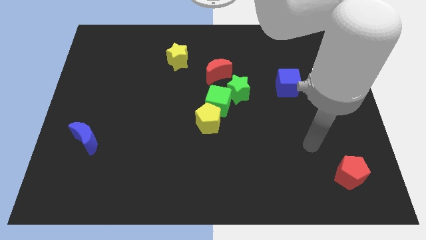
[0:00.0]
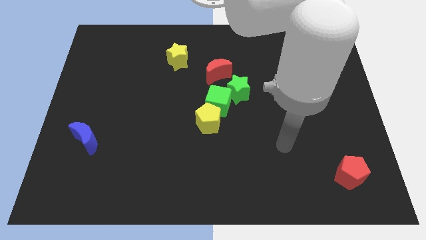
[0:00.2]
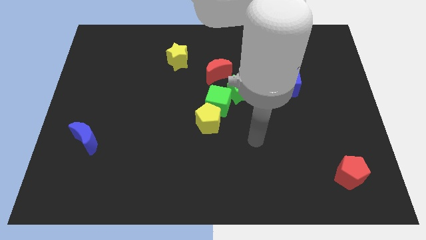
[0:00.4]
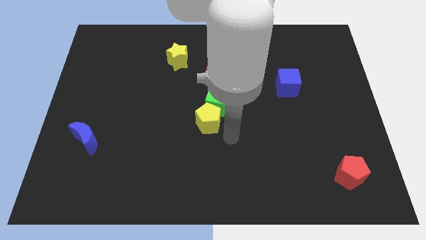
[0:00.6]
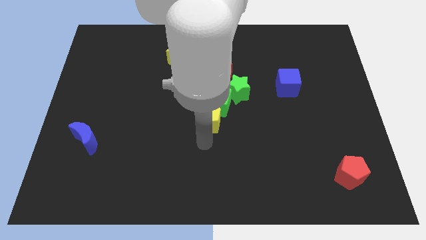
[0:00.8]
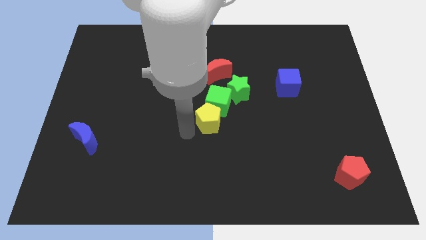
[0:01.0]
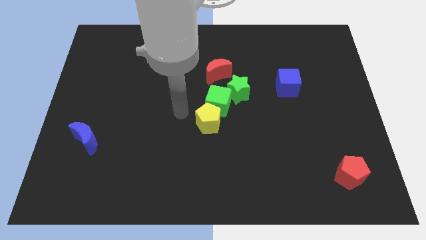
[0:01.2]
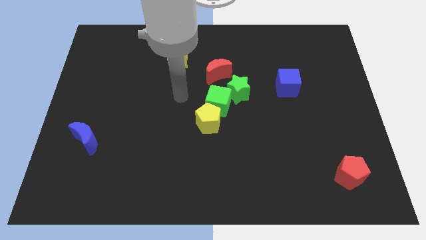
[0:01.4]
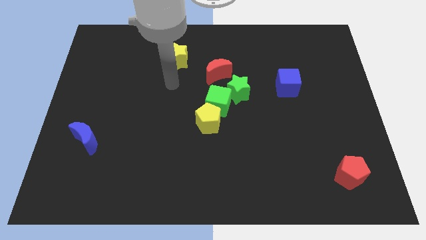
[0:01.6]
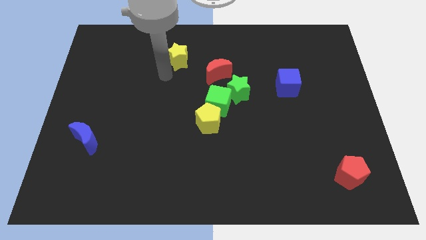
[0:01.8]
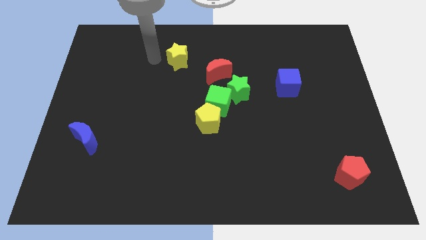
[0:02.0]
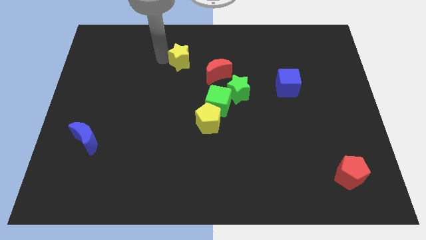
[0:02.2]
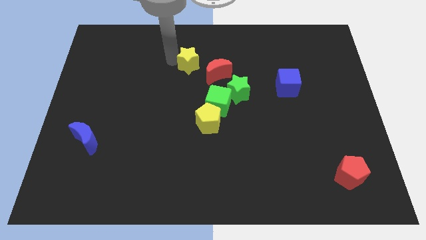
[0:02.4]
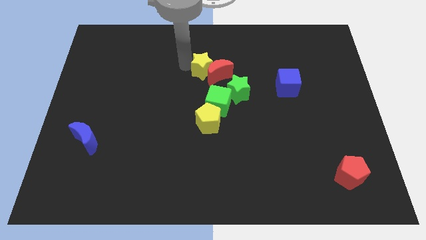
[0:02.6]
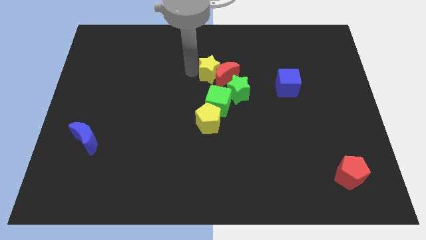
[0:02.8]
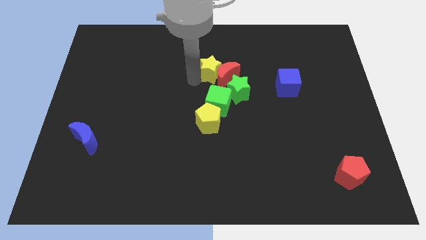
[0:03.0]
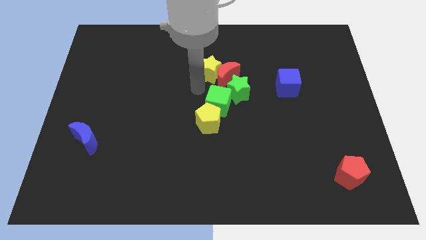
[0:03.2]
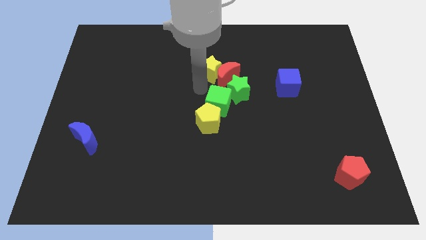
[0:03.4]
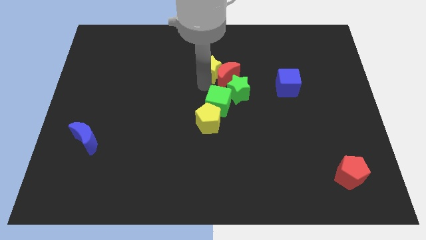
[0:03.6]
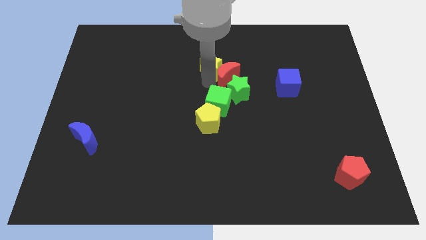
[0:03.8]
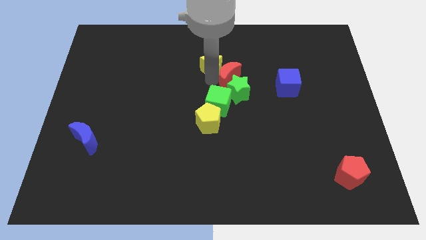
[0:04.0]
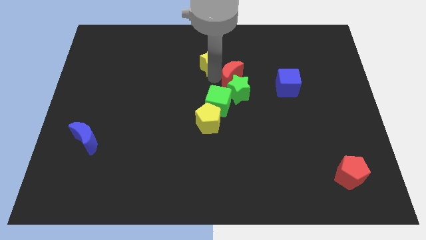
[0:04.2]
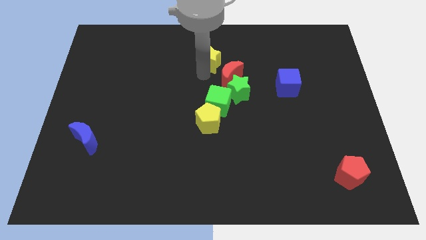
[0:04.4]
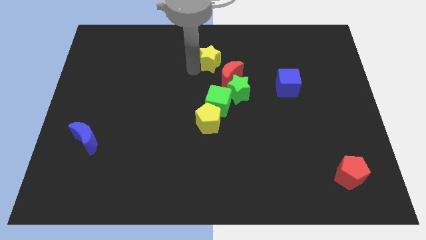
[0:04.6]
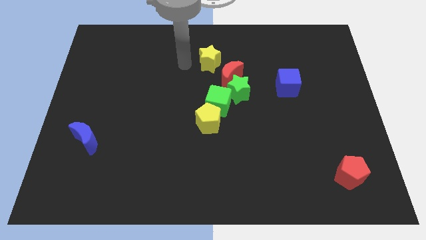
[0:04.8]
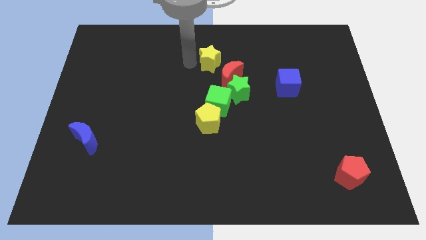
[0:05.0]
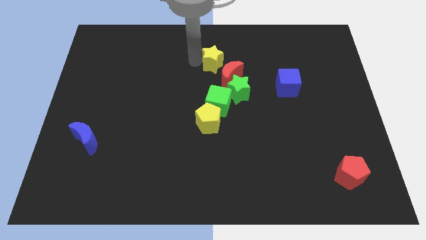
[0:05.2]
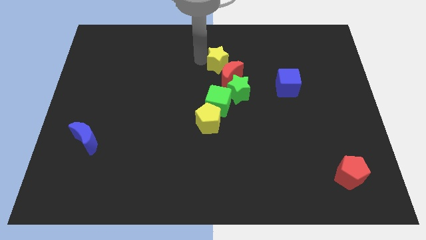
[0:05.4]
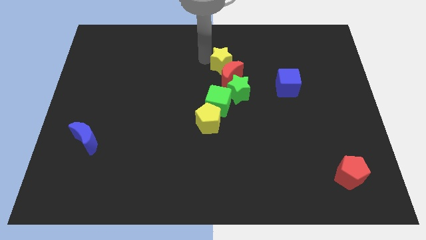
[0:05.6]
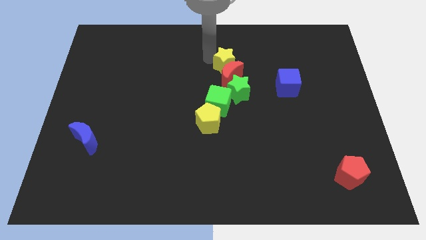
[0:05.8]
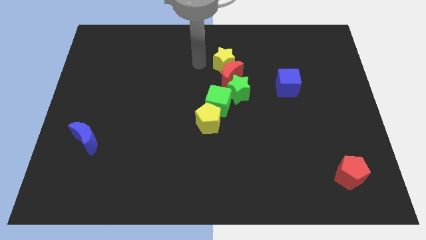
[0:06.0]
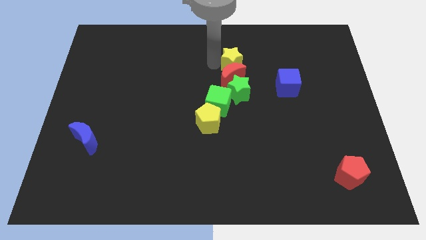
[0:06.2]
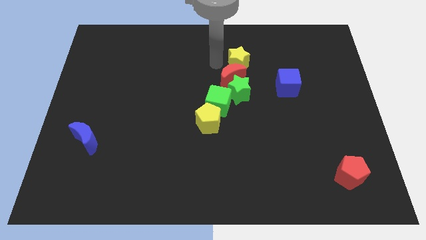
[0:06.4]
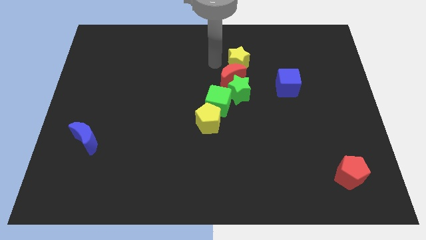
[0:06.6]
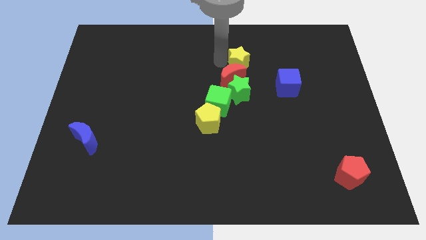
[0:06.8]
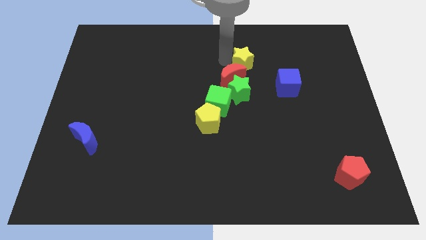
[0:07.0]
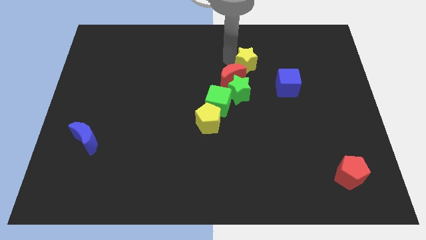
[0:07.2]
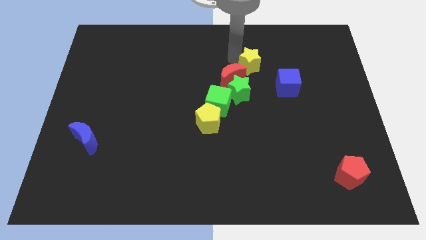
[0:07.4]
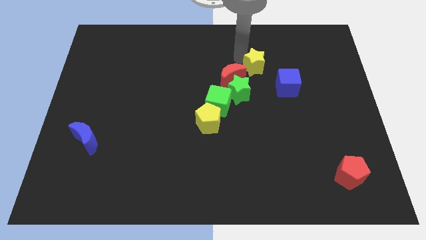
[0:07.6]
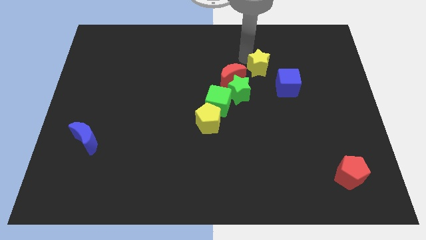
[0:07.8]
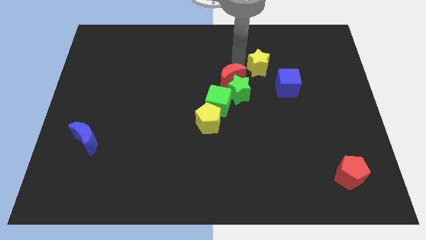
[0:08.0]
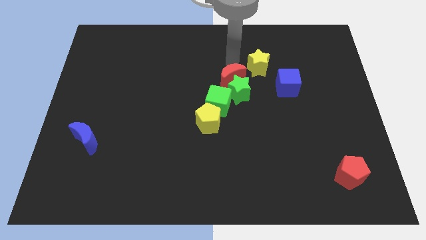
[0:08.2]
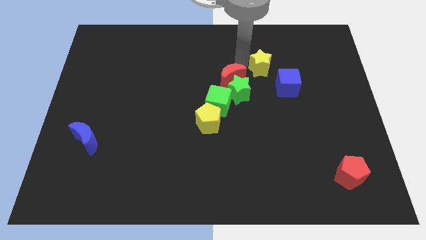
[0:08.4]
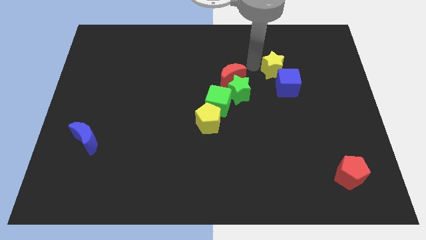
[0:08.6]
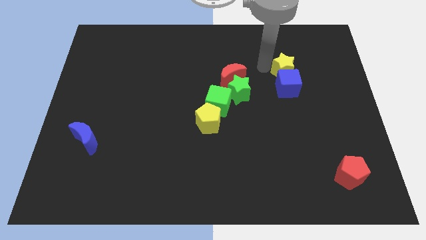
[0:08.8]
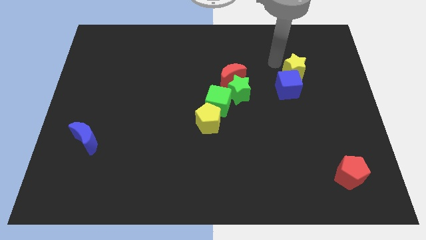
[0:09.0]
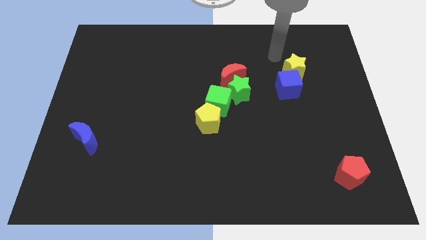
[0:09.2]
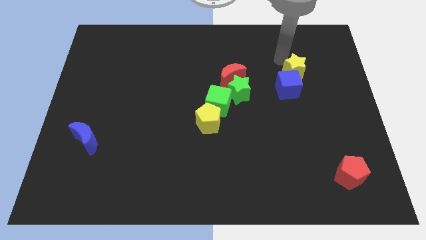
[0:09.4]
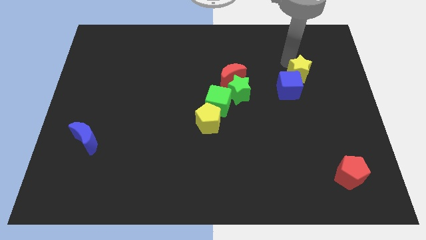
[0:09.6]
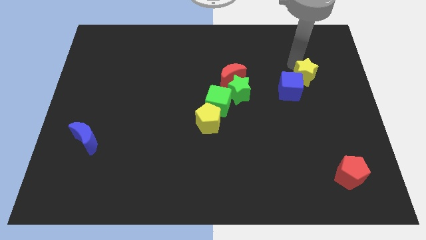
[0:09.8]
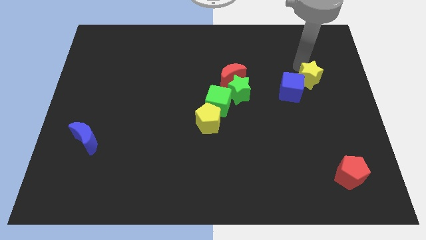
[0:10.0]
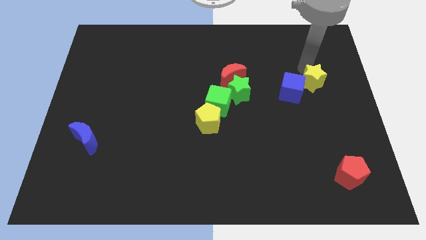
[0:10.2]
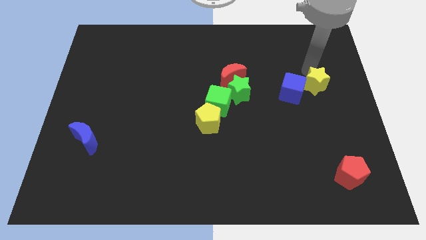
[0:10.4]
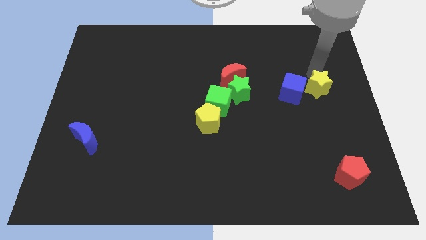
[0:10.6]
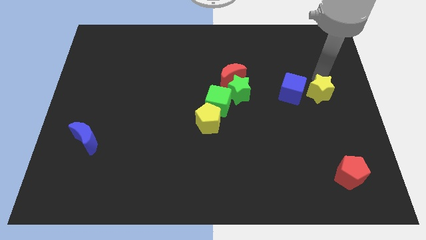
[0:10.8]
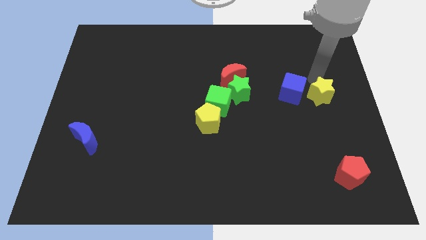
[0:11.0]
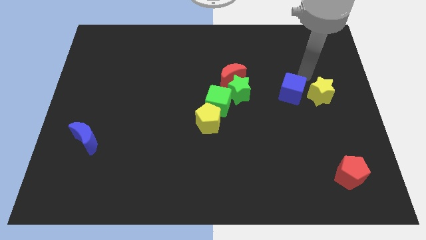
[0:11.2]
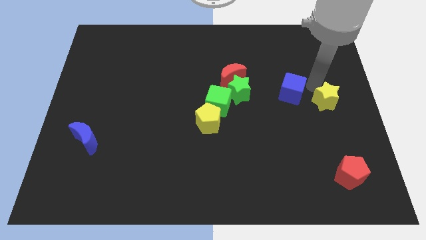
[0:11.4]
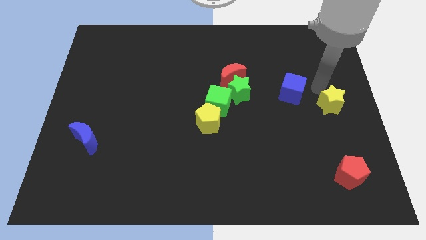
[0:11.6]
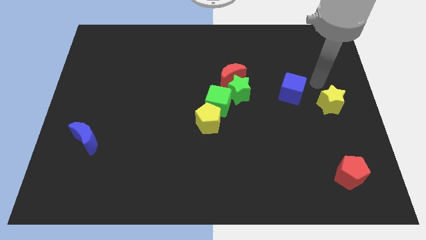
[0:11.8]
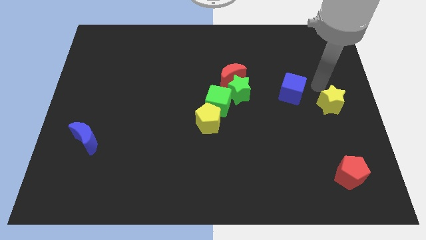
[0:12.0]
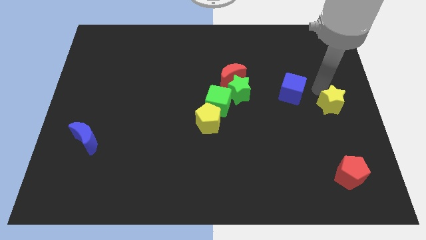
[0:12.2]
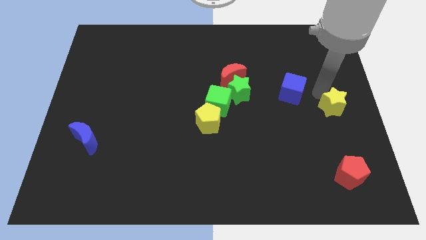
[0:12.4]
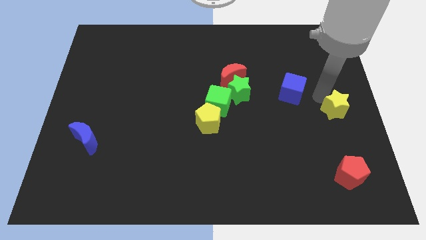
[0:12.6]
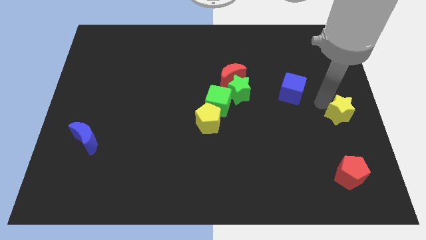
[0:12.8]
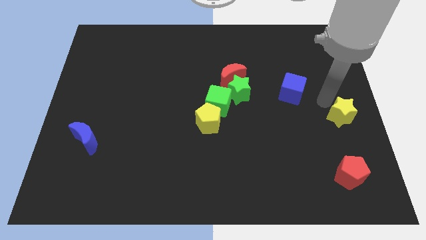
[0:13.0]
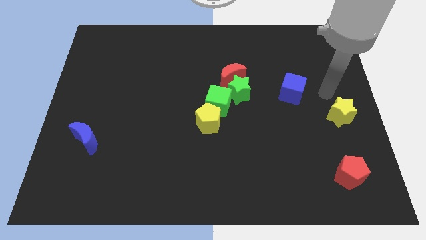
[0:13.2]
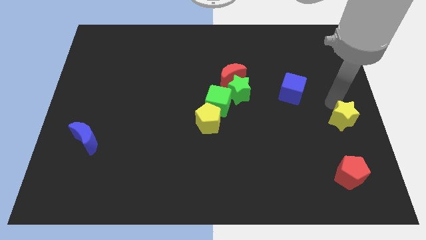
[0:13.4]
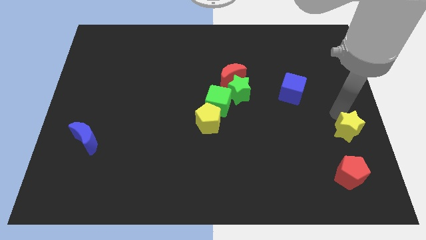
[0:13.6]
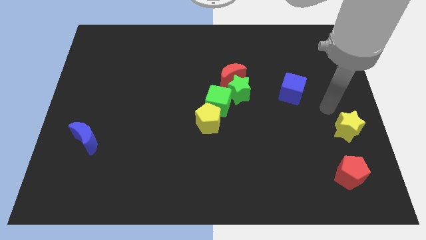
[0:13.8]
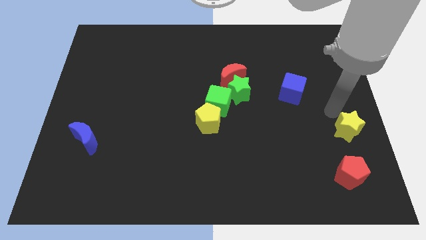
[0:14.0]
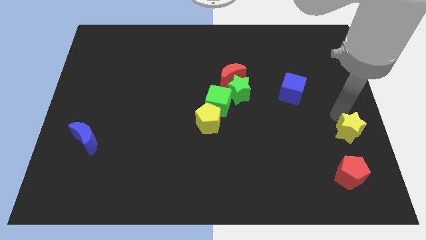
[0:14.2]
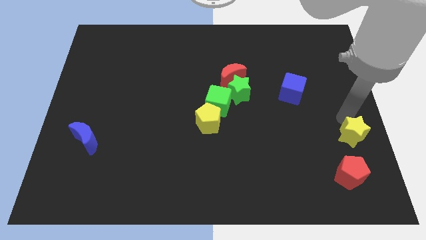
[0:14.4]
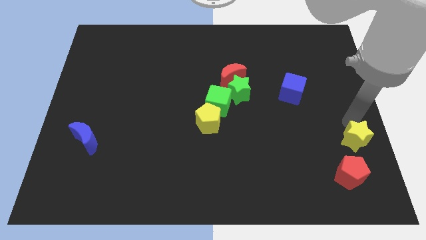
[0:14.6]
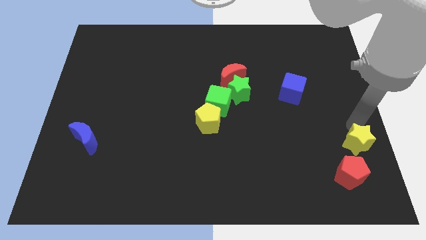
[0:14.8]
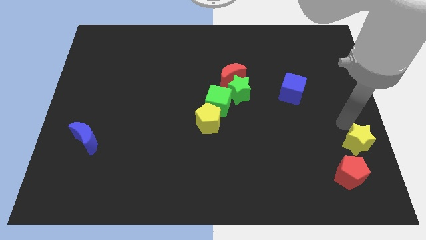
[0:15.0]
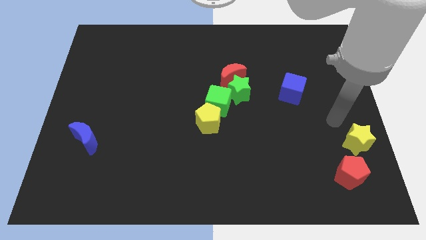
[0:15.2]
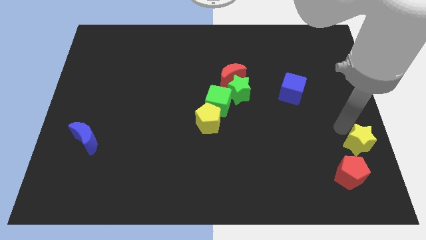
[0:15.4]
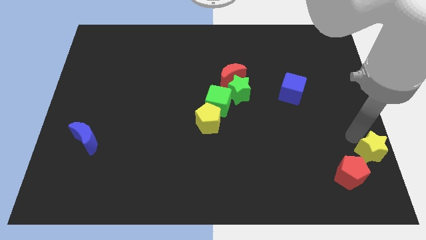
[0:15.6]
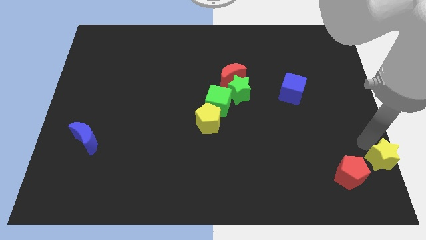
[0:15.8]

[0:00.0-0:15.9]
slide the yellow star to the lower right corner
